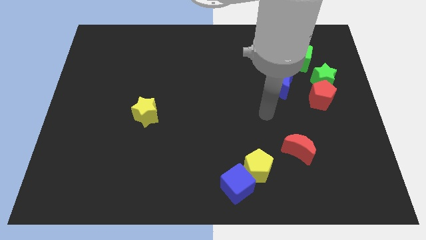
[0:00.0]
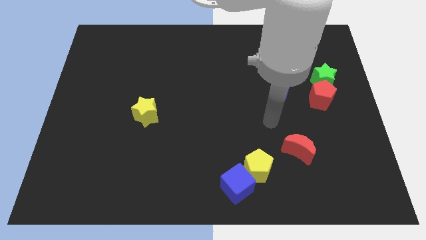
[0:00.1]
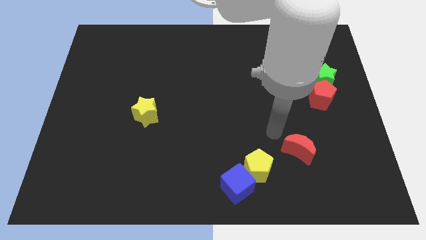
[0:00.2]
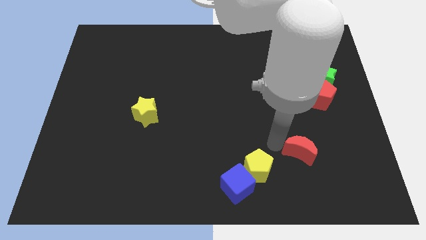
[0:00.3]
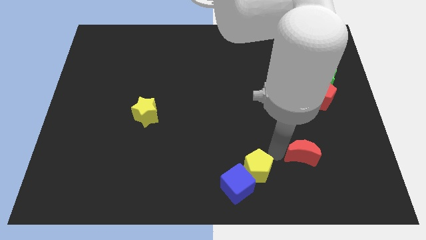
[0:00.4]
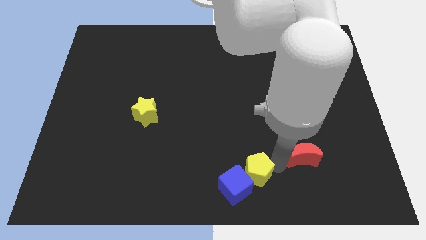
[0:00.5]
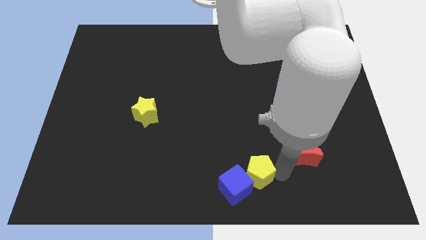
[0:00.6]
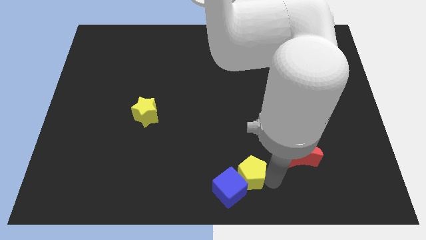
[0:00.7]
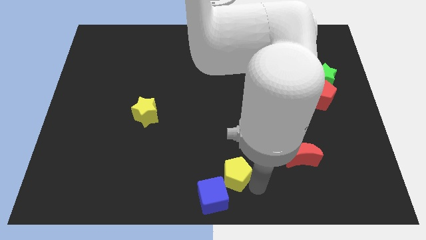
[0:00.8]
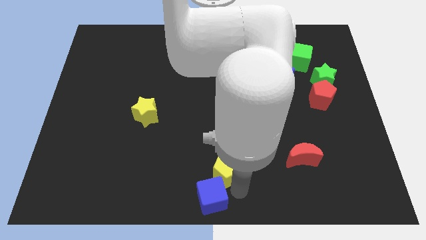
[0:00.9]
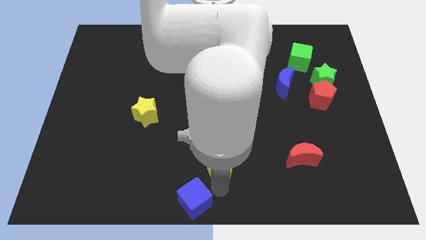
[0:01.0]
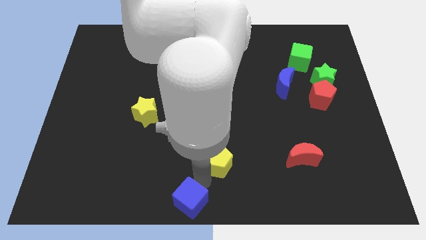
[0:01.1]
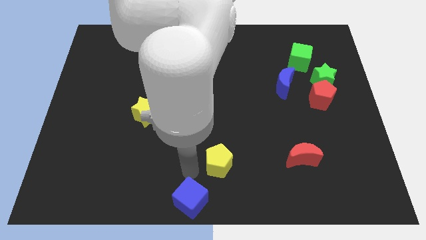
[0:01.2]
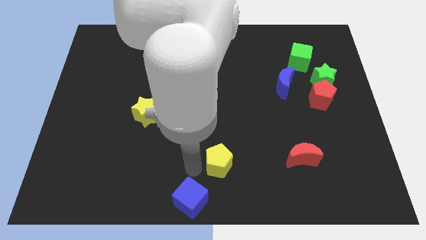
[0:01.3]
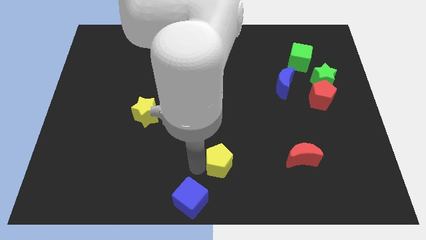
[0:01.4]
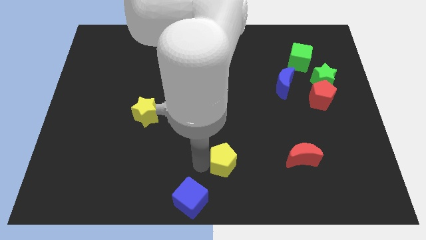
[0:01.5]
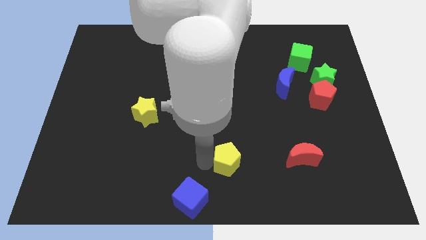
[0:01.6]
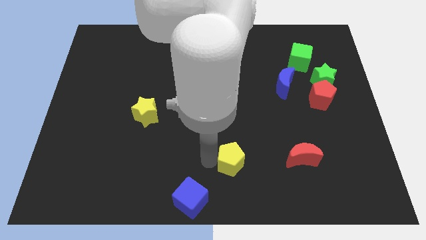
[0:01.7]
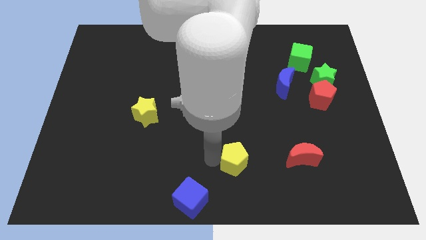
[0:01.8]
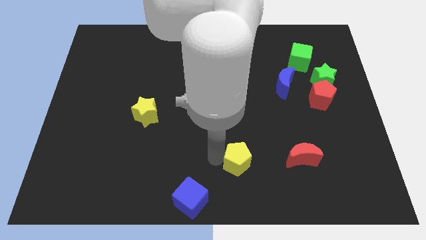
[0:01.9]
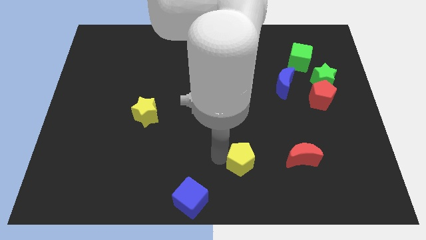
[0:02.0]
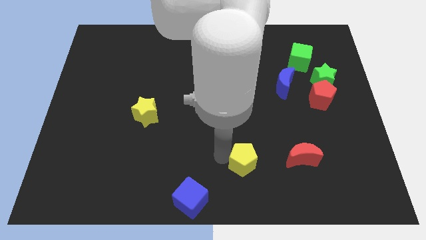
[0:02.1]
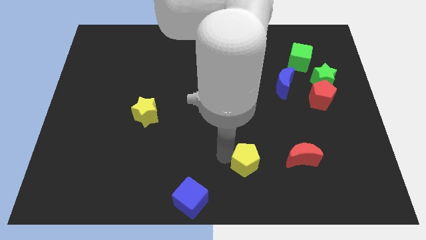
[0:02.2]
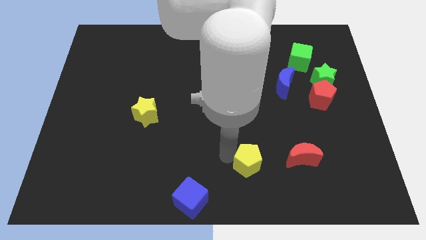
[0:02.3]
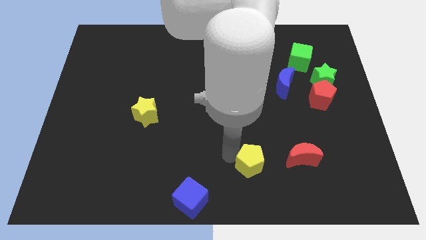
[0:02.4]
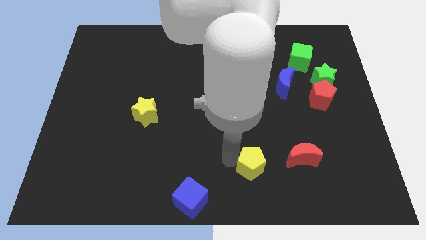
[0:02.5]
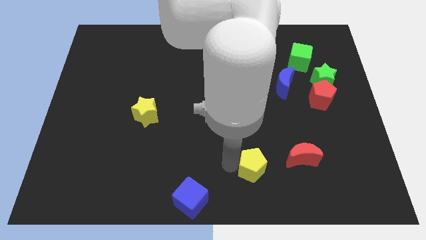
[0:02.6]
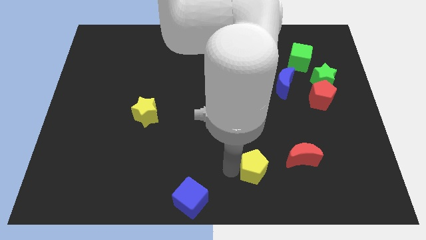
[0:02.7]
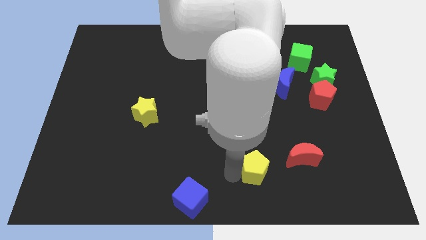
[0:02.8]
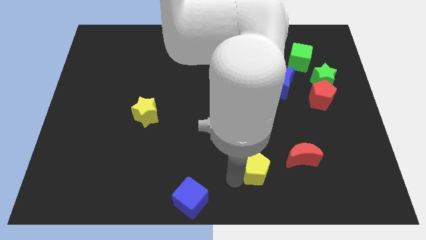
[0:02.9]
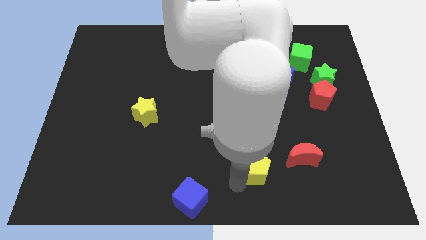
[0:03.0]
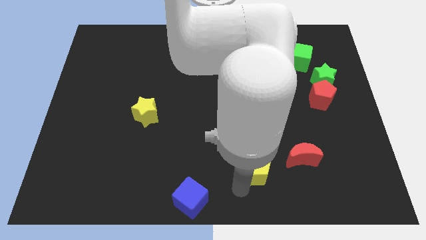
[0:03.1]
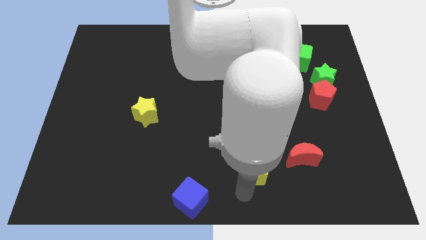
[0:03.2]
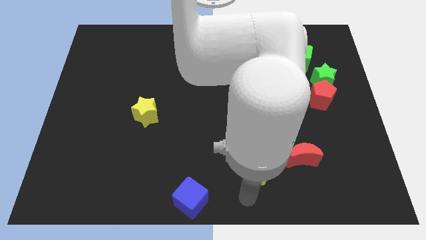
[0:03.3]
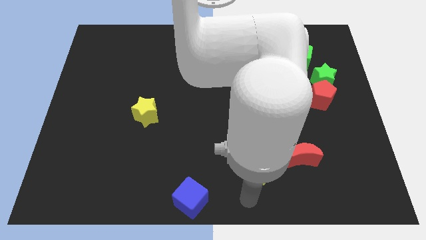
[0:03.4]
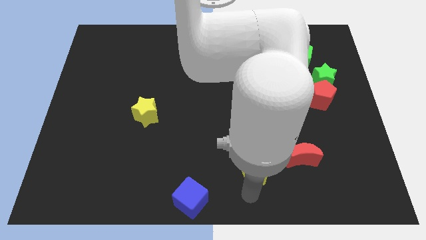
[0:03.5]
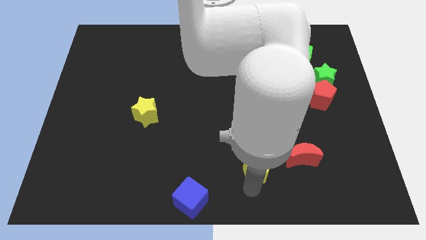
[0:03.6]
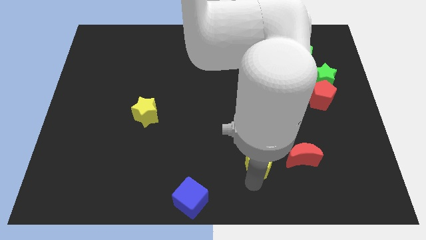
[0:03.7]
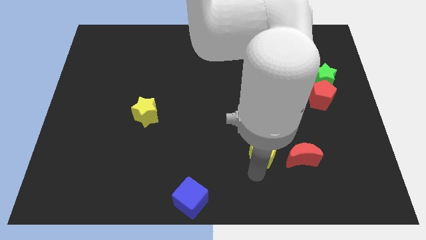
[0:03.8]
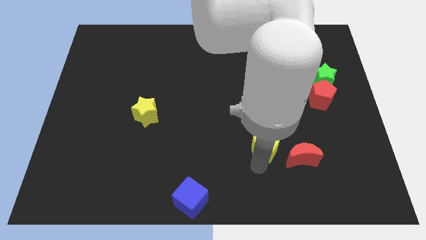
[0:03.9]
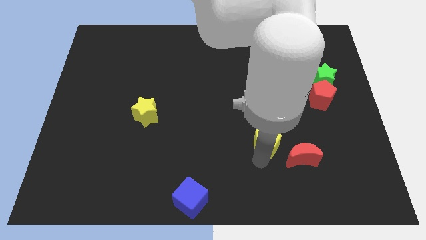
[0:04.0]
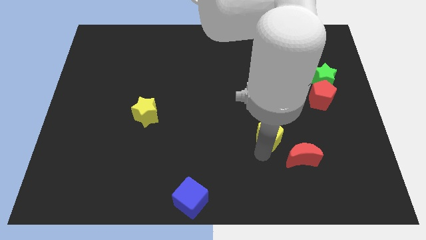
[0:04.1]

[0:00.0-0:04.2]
slightly move the yellow pentagon up and to the right

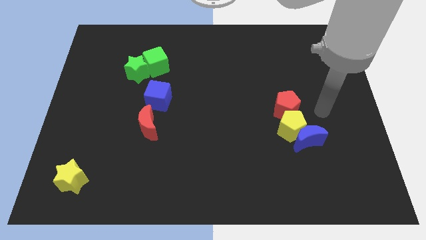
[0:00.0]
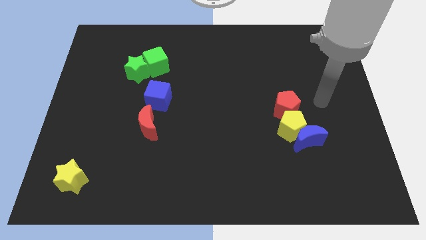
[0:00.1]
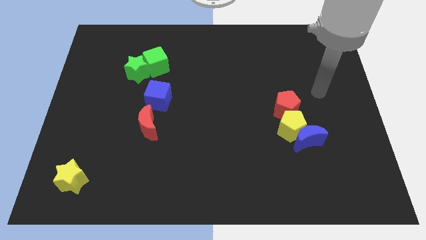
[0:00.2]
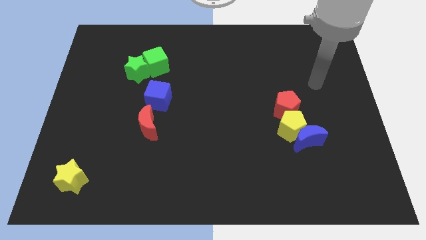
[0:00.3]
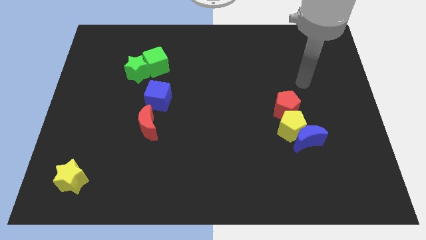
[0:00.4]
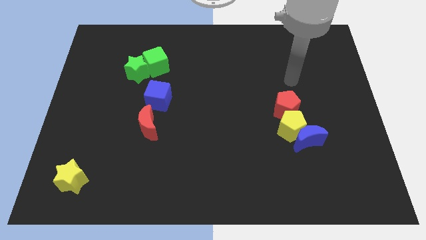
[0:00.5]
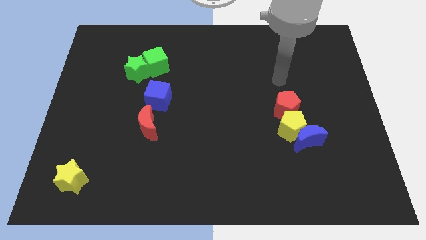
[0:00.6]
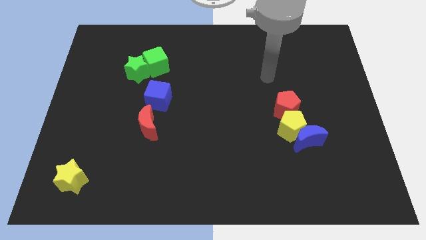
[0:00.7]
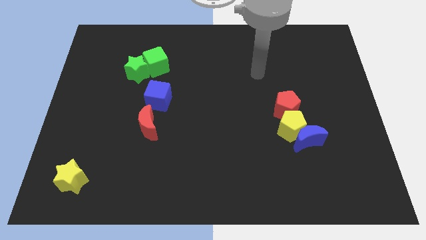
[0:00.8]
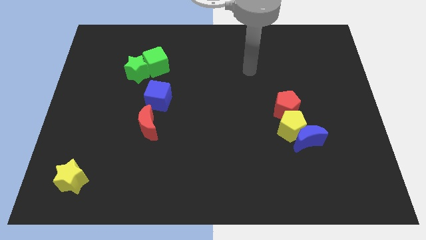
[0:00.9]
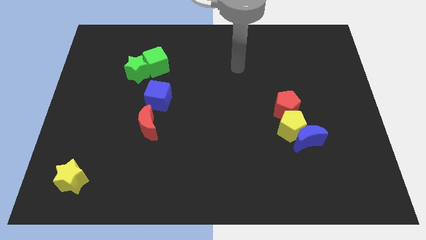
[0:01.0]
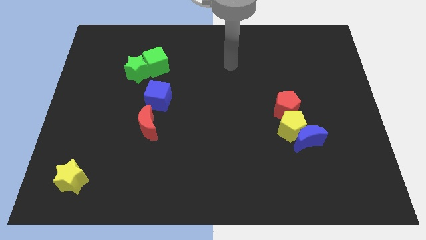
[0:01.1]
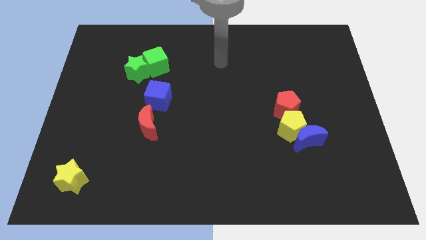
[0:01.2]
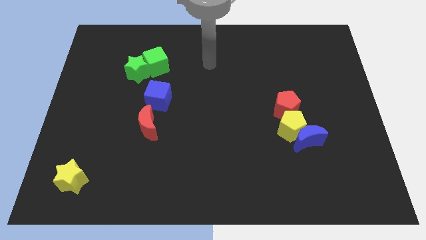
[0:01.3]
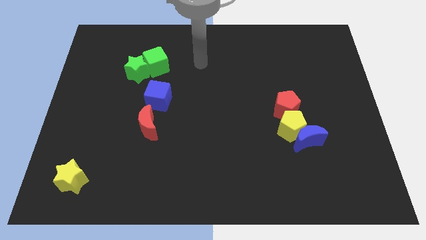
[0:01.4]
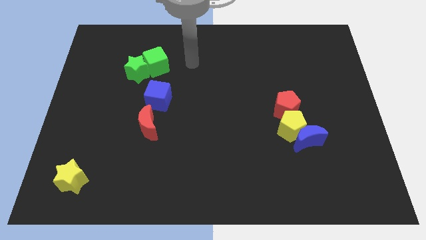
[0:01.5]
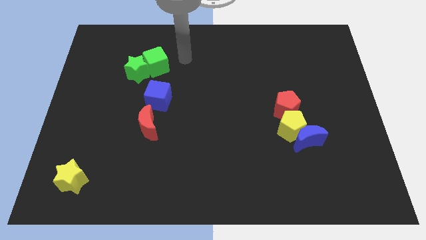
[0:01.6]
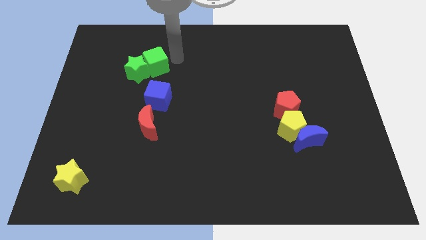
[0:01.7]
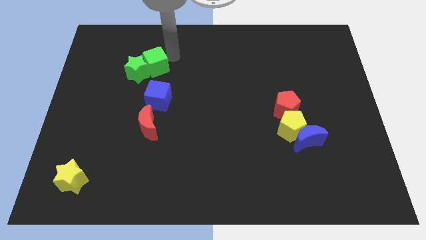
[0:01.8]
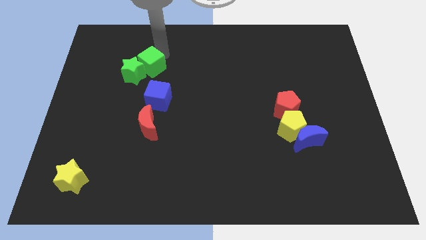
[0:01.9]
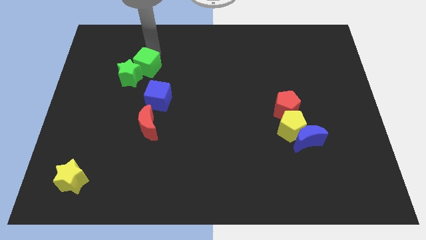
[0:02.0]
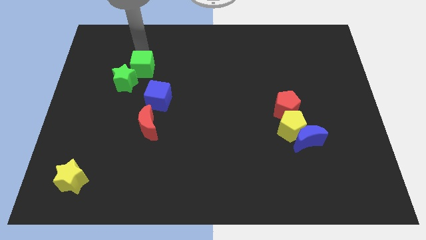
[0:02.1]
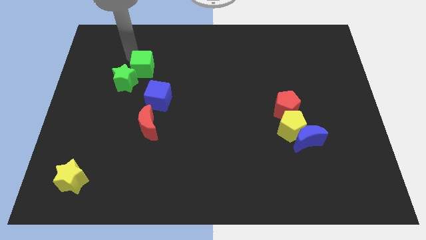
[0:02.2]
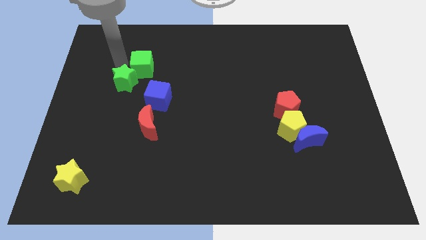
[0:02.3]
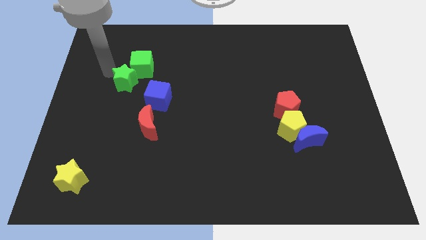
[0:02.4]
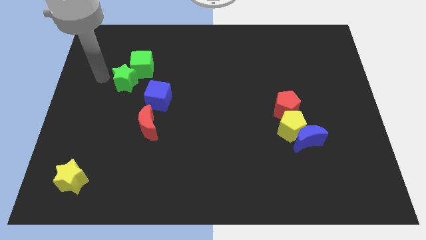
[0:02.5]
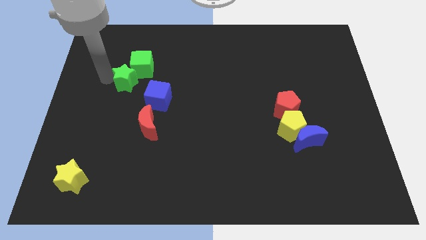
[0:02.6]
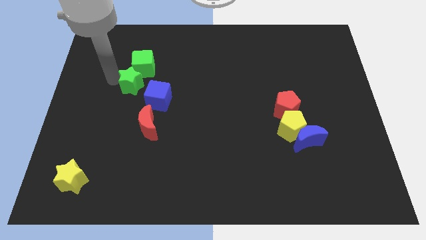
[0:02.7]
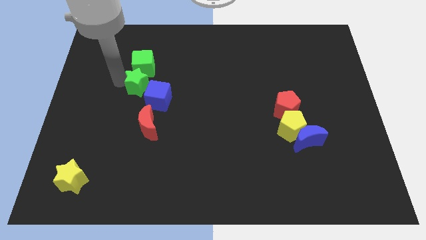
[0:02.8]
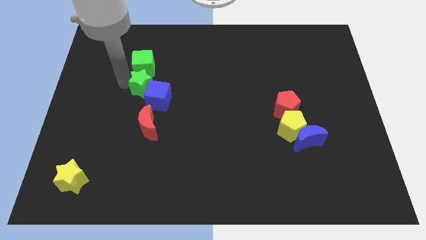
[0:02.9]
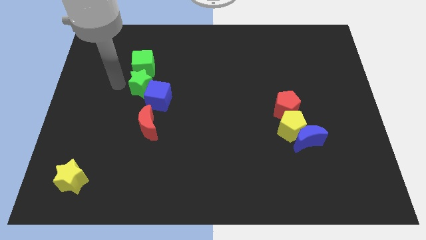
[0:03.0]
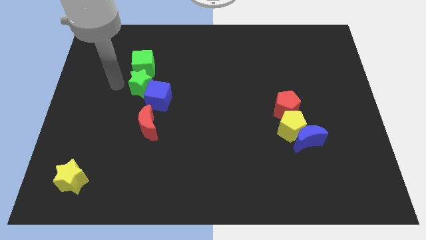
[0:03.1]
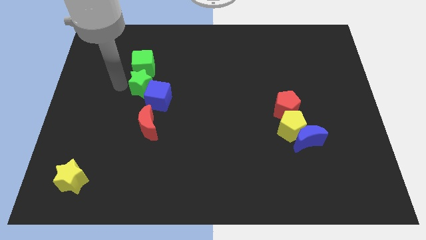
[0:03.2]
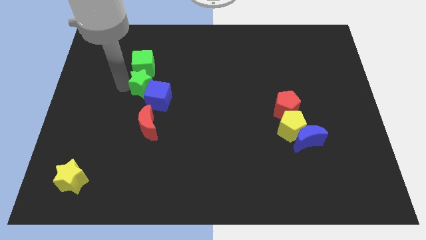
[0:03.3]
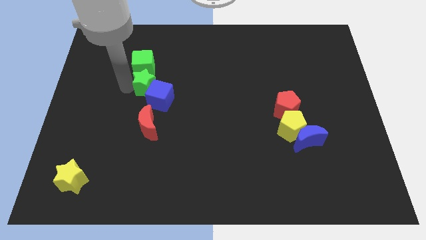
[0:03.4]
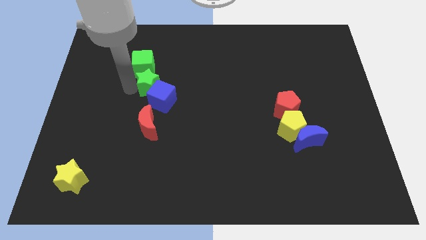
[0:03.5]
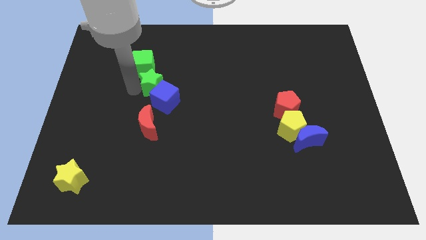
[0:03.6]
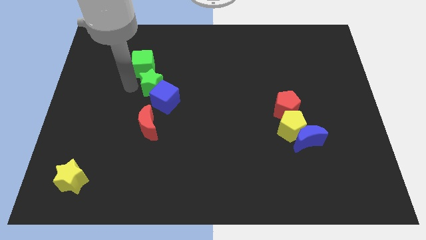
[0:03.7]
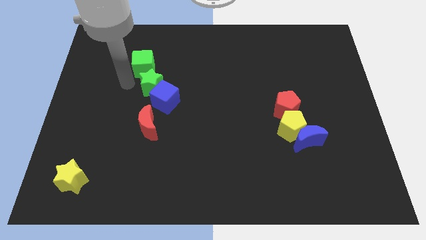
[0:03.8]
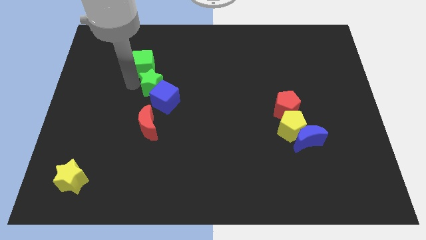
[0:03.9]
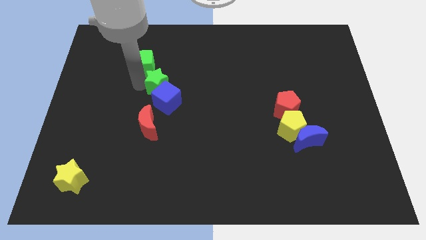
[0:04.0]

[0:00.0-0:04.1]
slide the green star slightly downwards and to the right diagonally
